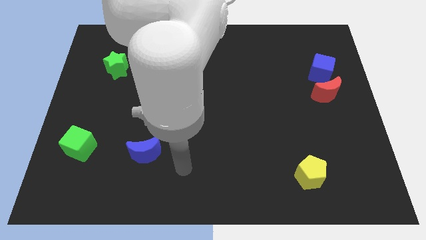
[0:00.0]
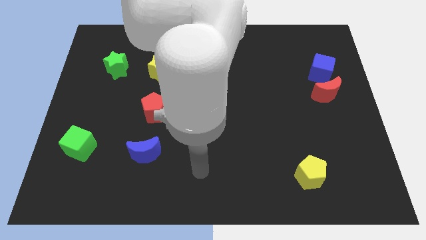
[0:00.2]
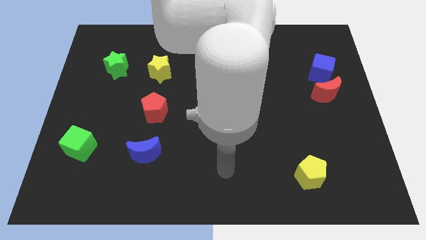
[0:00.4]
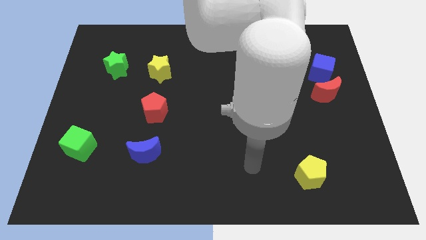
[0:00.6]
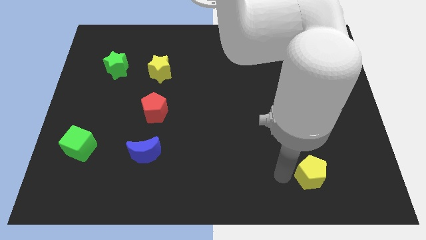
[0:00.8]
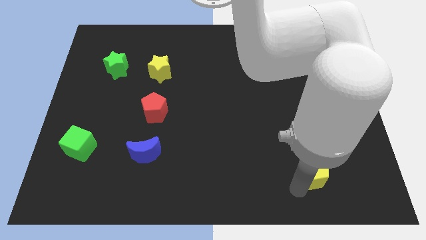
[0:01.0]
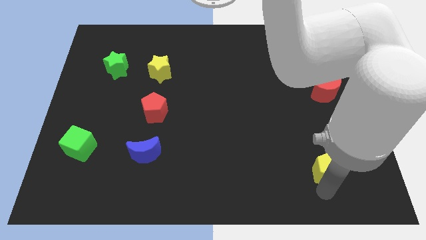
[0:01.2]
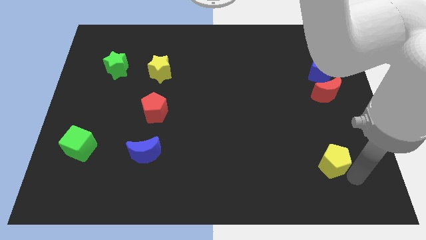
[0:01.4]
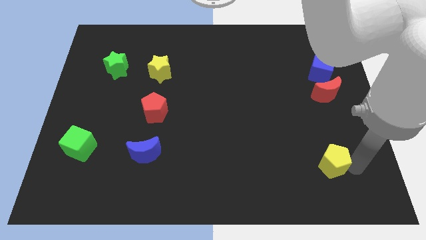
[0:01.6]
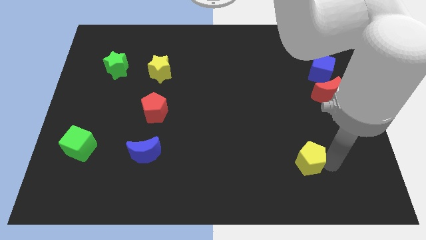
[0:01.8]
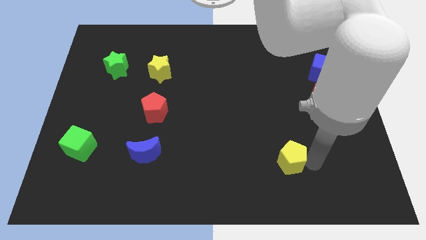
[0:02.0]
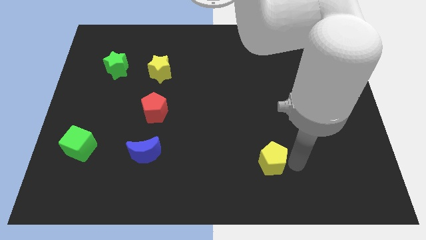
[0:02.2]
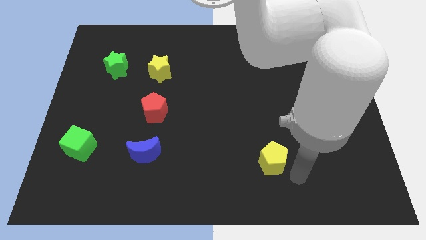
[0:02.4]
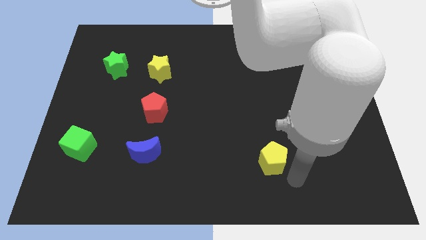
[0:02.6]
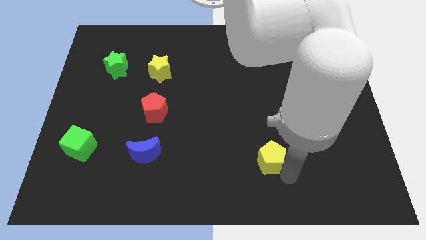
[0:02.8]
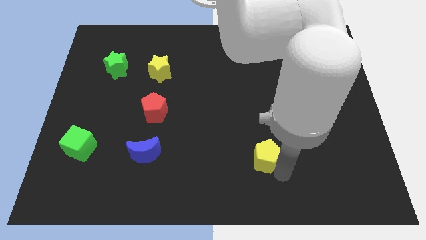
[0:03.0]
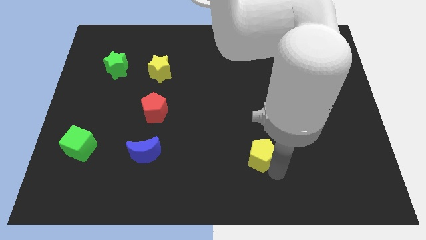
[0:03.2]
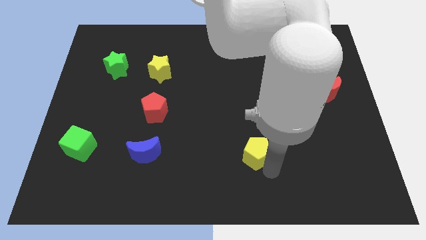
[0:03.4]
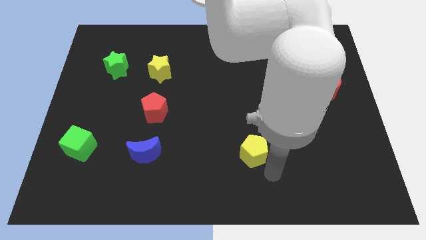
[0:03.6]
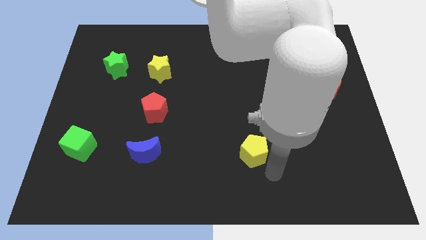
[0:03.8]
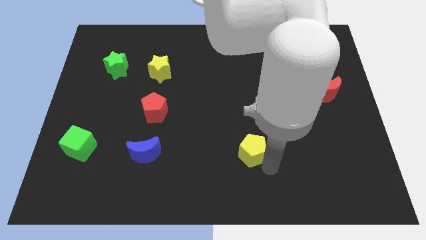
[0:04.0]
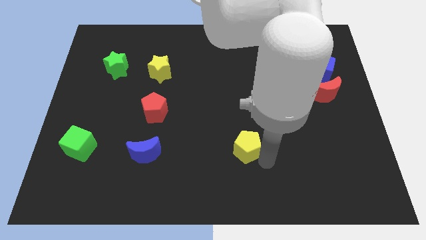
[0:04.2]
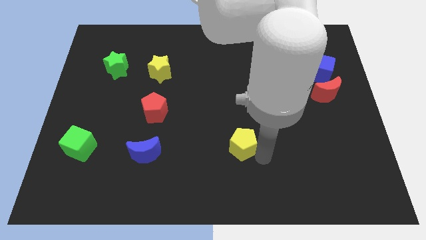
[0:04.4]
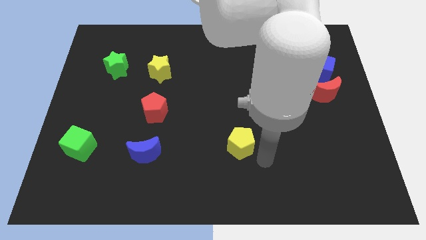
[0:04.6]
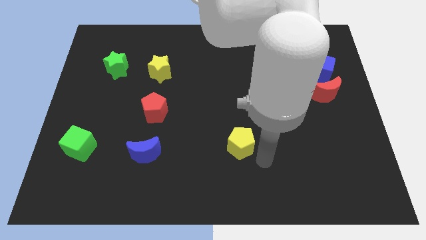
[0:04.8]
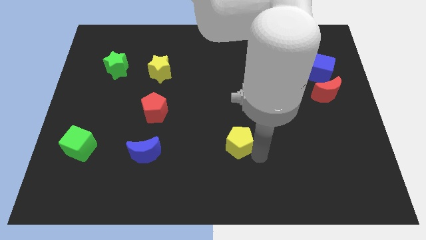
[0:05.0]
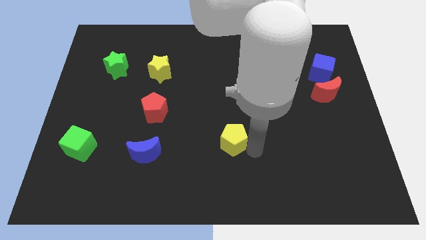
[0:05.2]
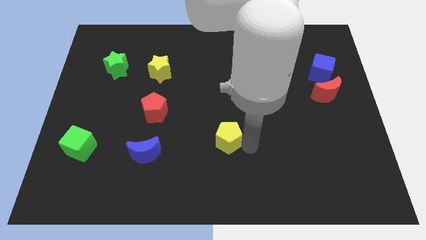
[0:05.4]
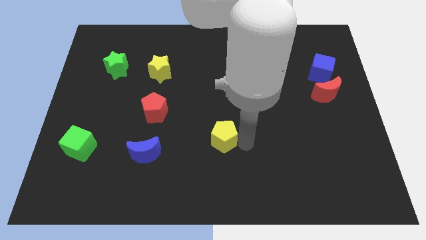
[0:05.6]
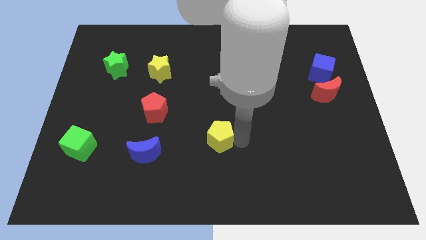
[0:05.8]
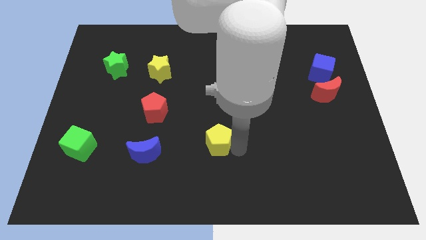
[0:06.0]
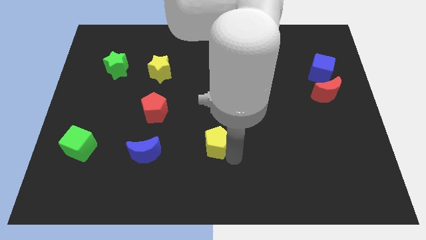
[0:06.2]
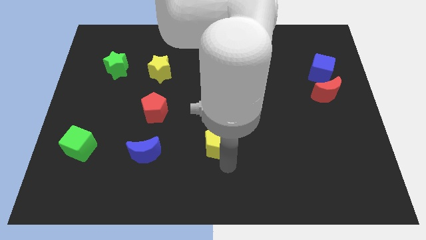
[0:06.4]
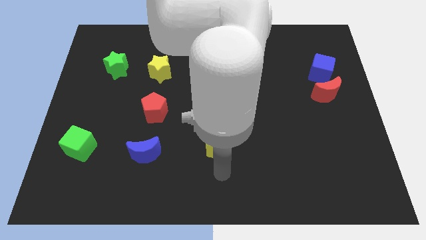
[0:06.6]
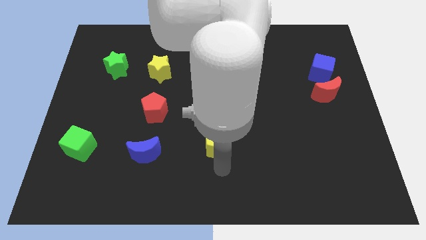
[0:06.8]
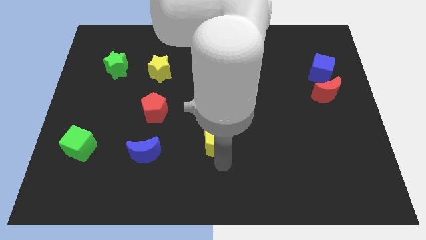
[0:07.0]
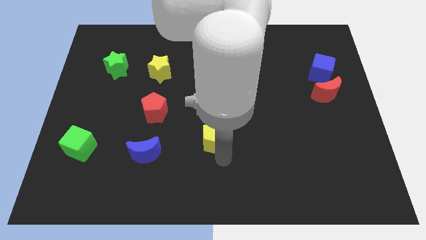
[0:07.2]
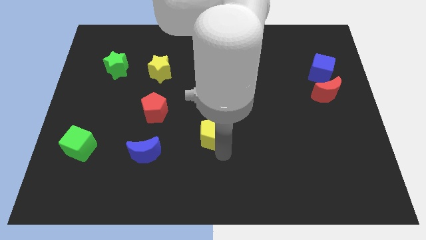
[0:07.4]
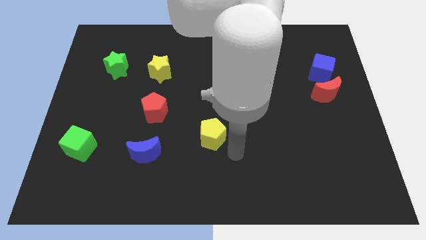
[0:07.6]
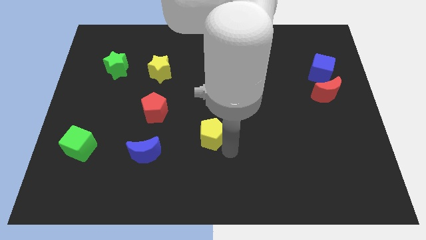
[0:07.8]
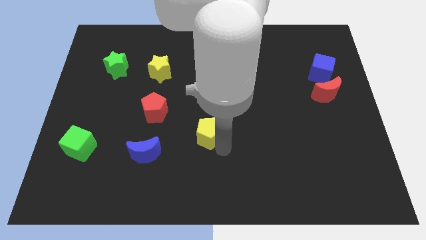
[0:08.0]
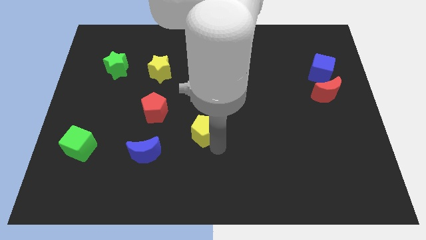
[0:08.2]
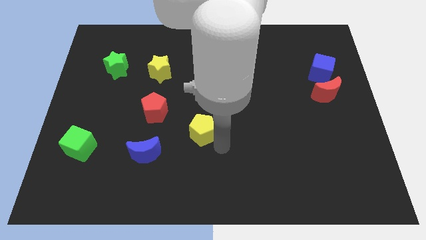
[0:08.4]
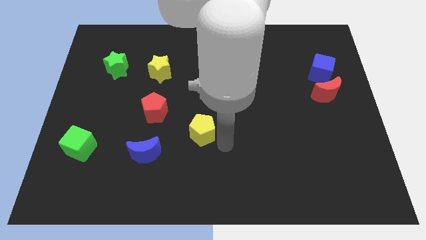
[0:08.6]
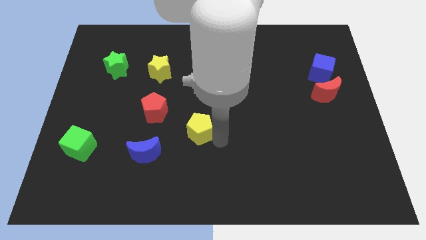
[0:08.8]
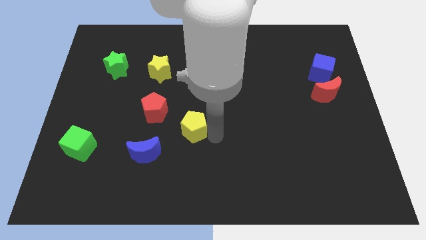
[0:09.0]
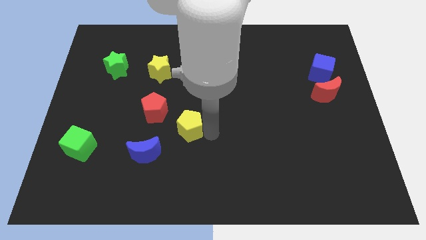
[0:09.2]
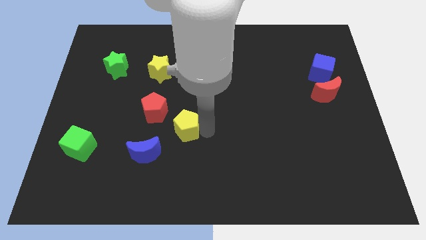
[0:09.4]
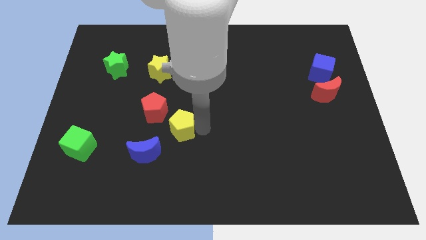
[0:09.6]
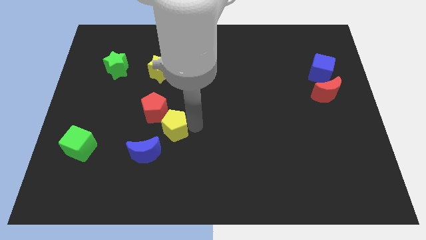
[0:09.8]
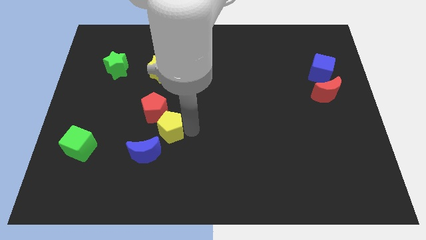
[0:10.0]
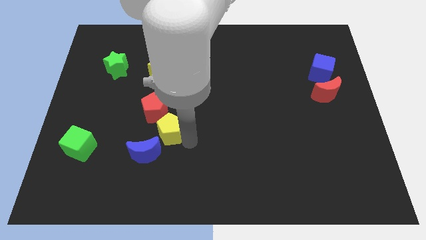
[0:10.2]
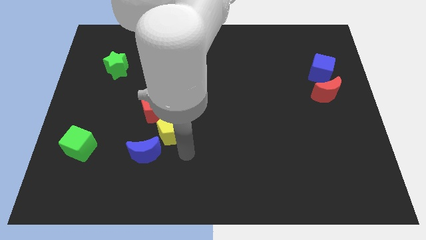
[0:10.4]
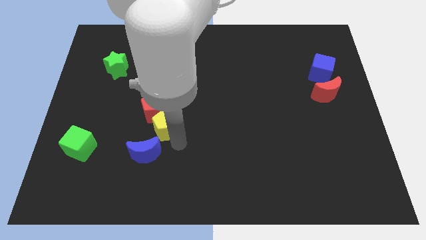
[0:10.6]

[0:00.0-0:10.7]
push the yellow pentagon to the red pentagon

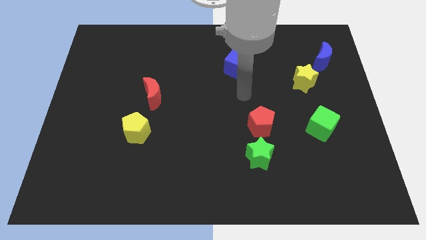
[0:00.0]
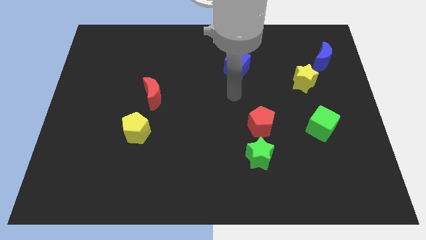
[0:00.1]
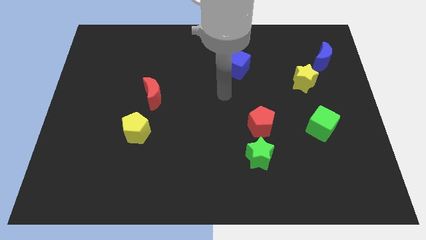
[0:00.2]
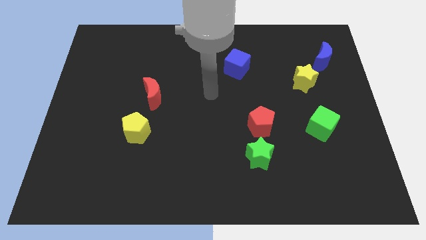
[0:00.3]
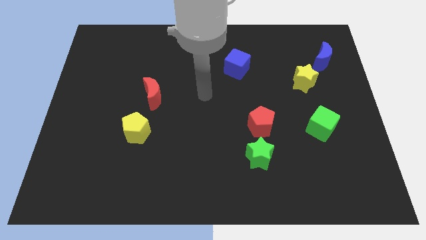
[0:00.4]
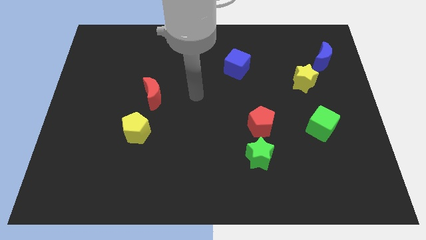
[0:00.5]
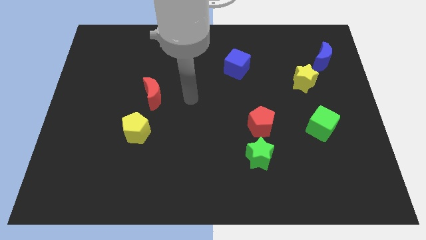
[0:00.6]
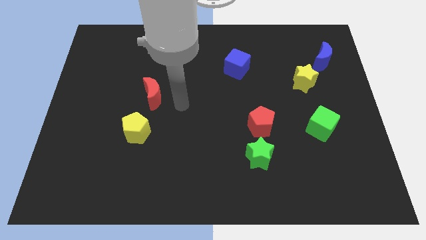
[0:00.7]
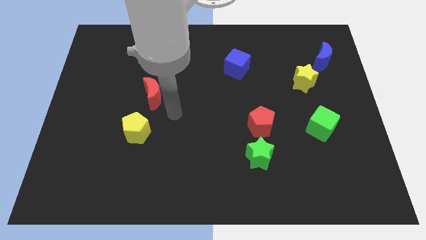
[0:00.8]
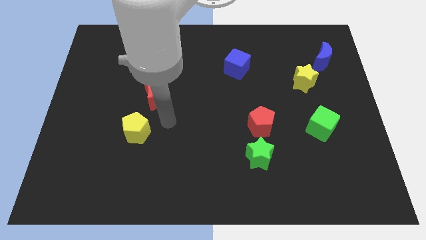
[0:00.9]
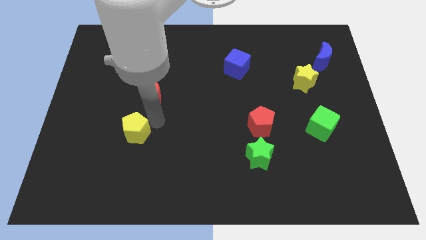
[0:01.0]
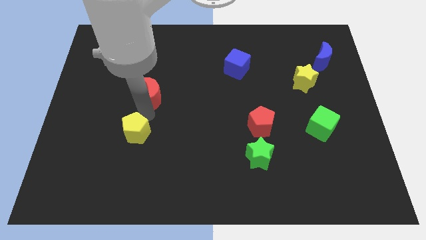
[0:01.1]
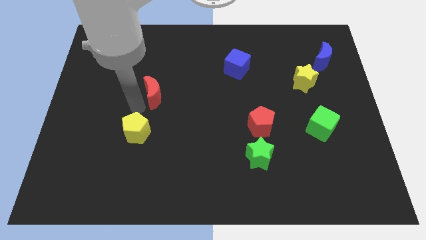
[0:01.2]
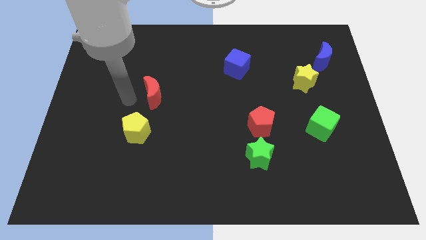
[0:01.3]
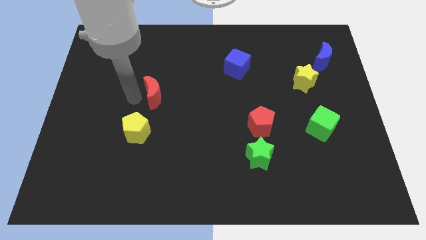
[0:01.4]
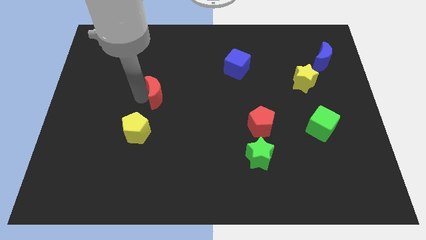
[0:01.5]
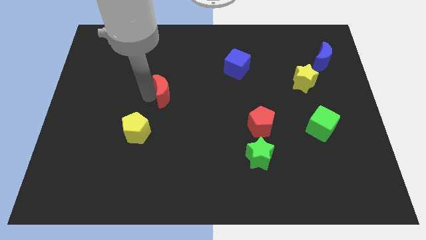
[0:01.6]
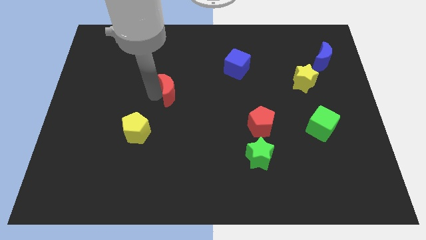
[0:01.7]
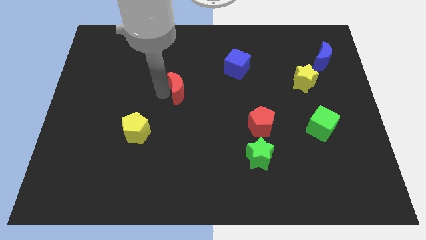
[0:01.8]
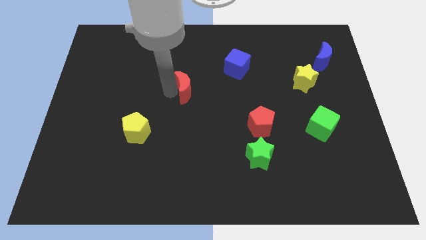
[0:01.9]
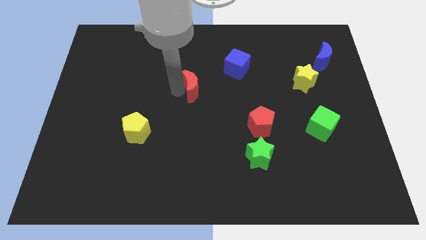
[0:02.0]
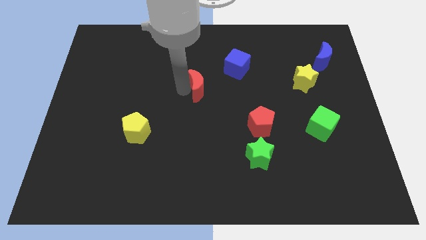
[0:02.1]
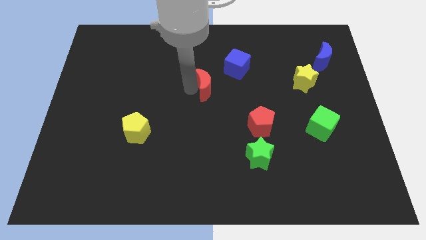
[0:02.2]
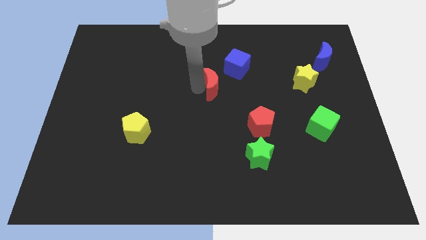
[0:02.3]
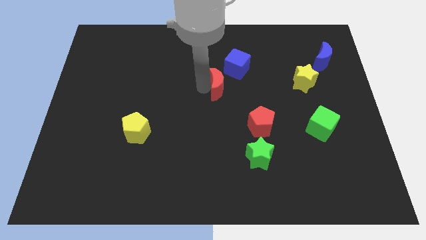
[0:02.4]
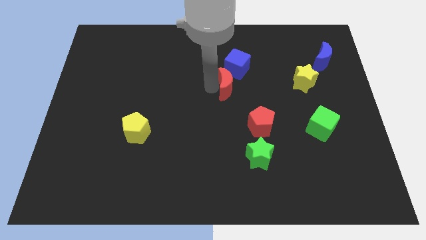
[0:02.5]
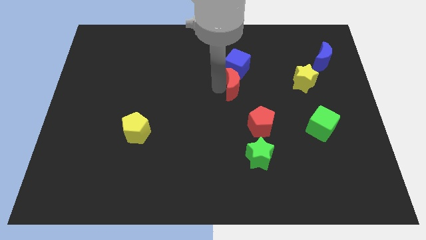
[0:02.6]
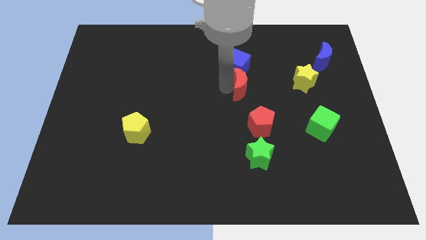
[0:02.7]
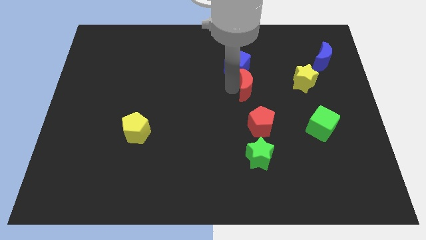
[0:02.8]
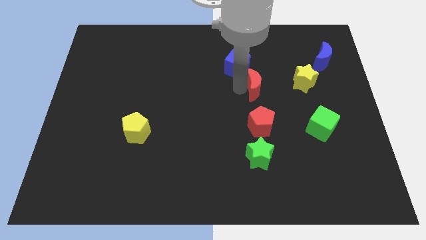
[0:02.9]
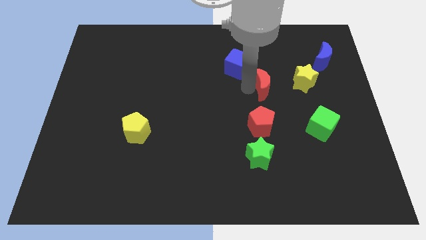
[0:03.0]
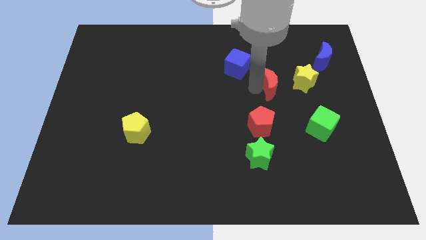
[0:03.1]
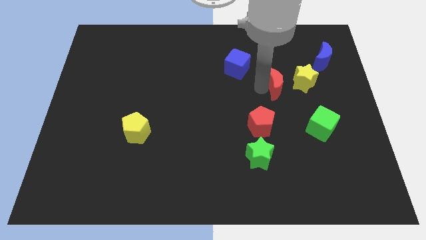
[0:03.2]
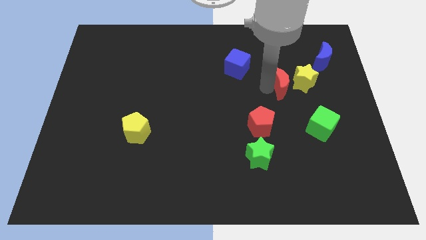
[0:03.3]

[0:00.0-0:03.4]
move the red moon close to the yellow star
